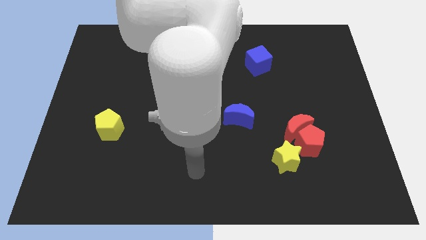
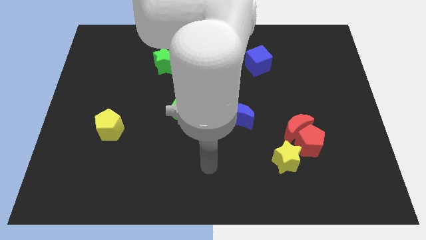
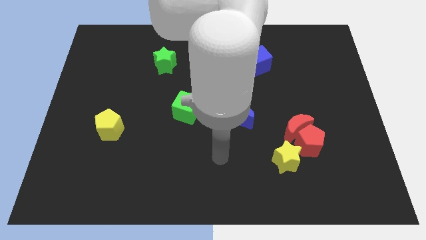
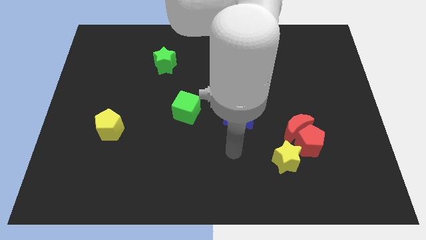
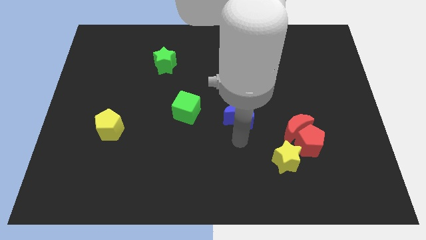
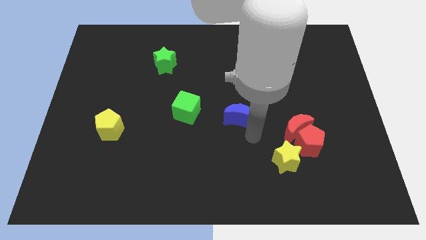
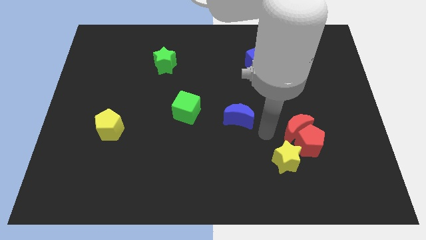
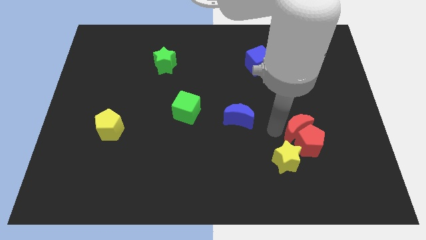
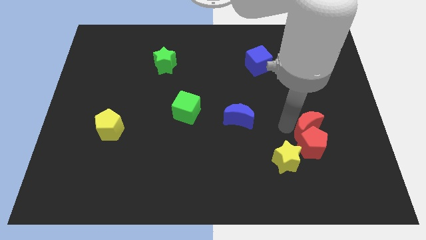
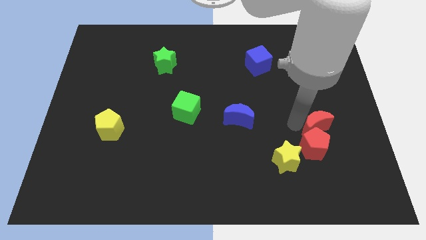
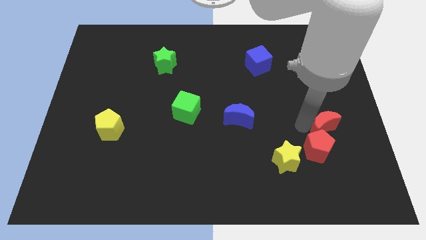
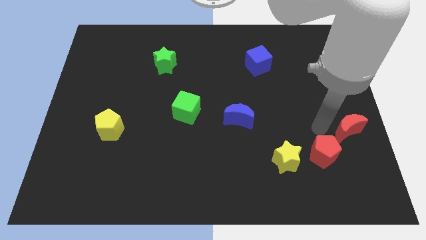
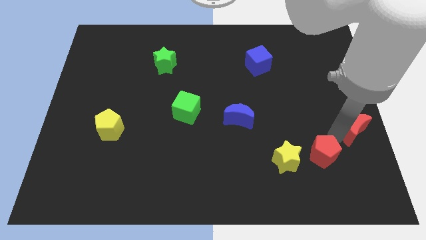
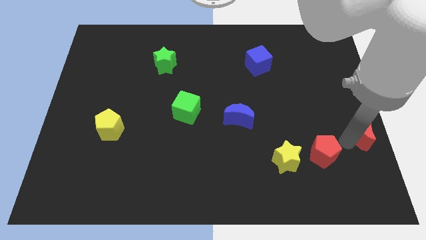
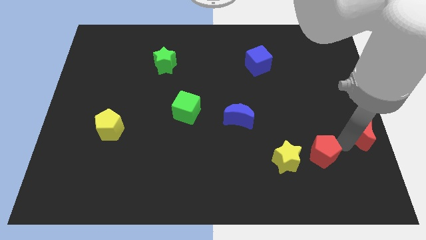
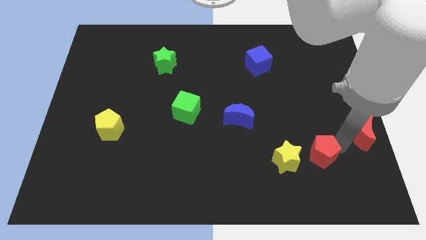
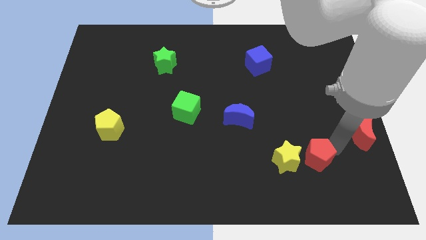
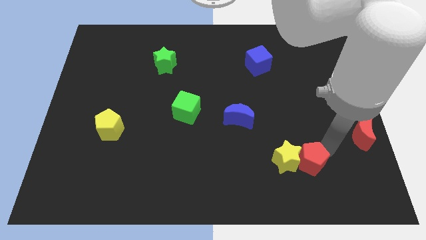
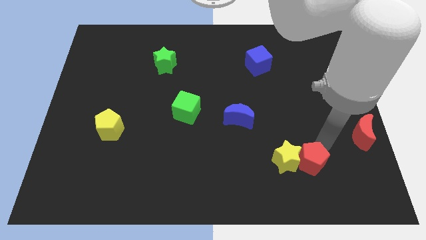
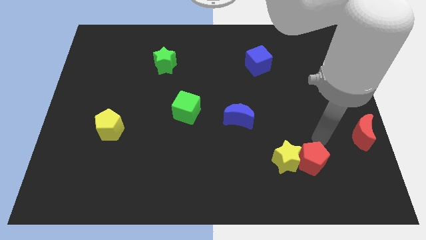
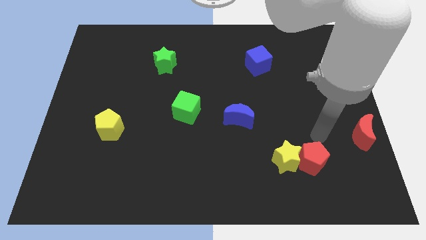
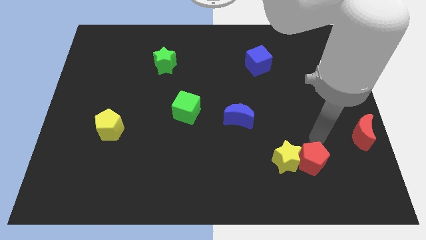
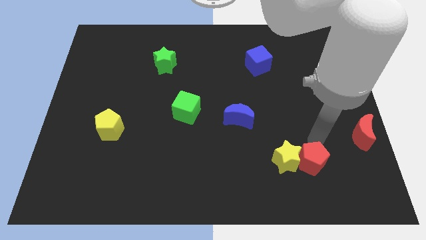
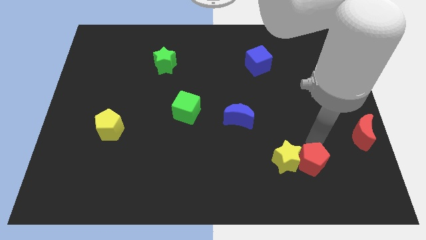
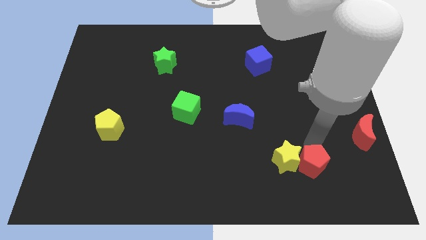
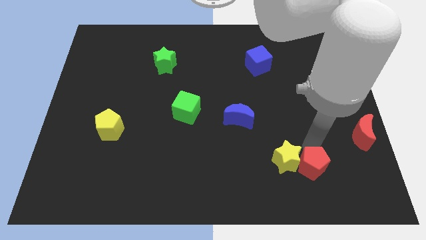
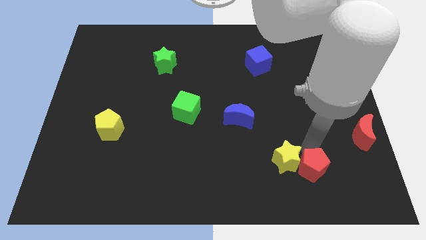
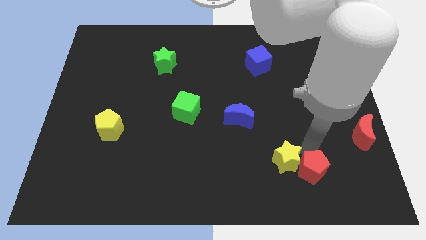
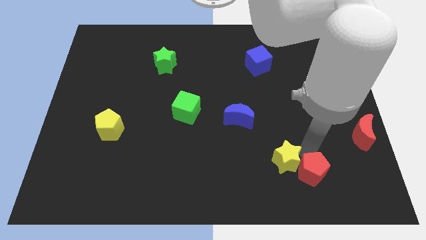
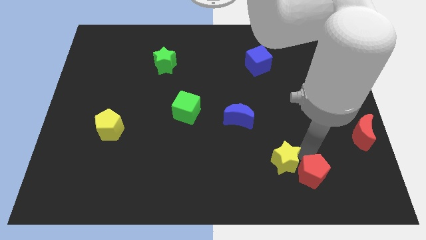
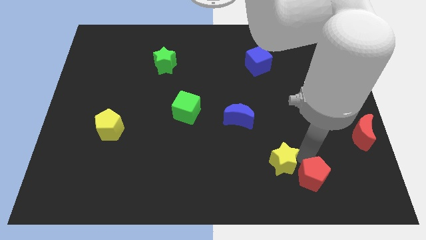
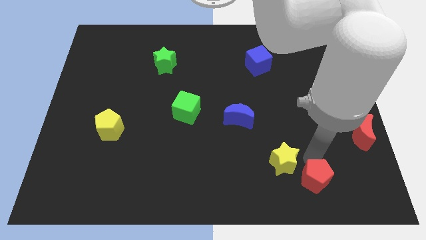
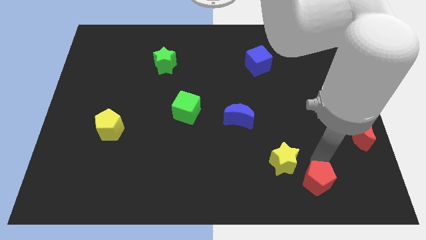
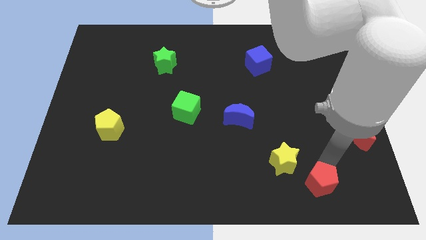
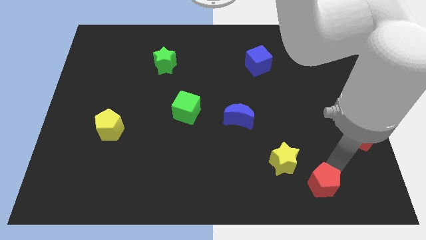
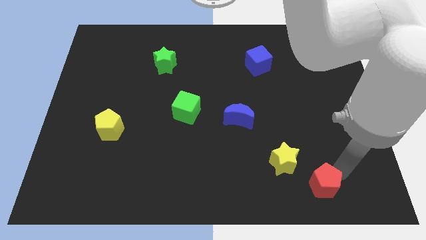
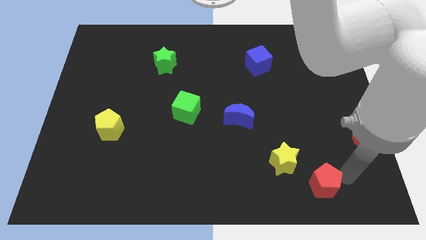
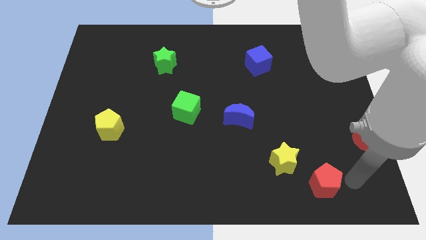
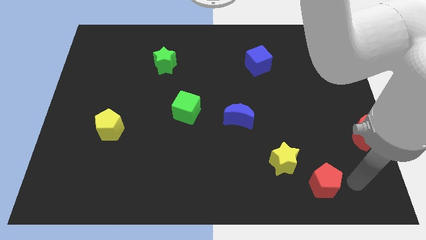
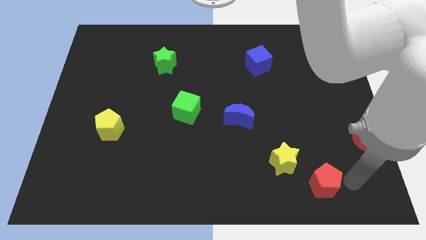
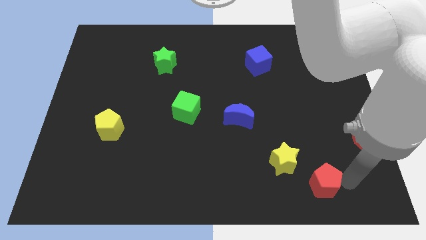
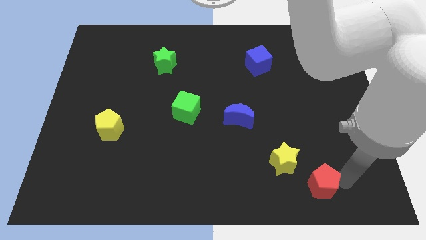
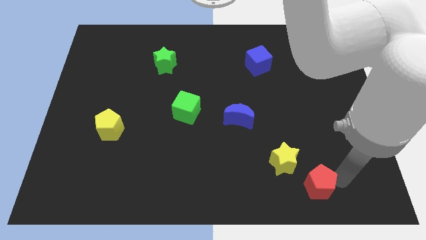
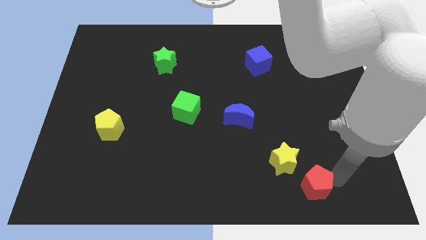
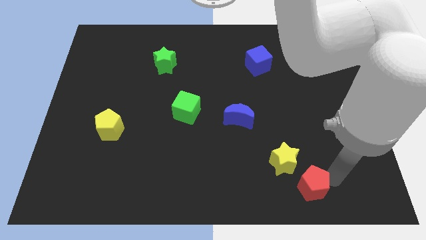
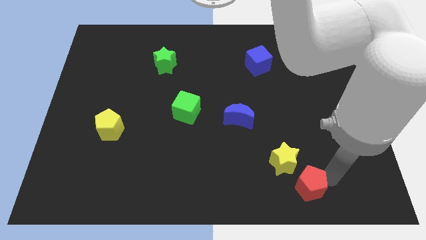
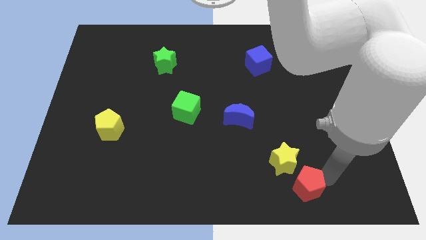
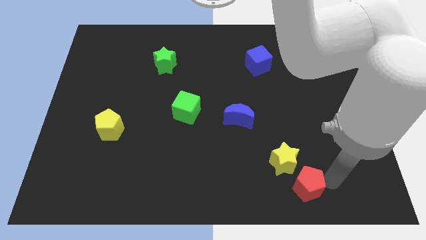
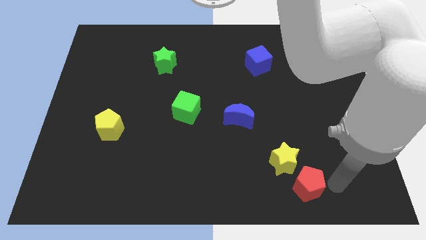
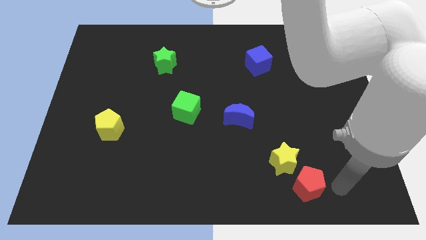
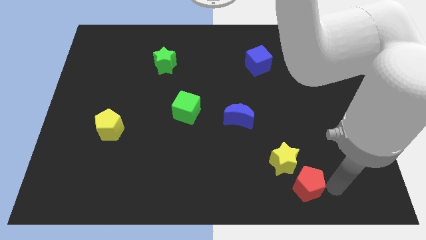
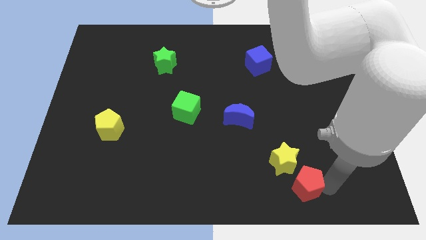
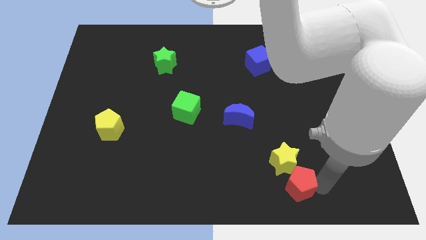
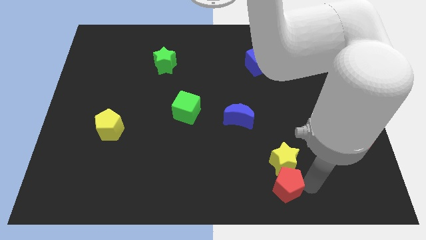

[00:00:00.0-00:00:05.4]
put the red pentagon to the bottom left of the yellow star
